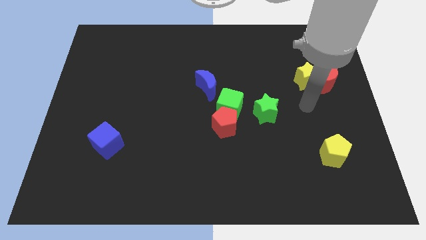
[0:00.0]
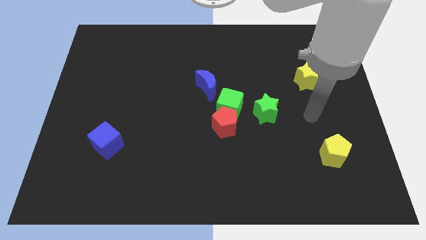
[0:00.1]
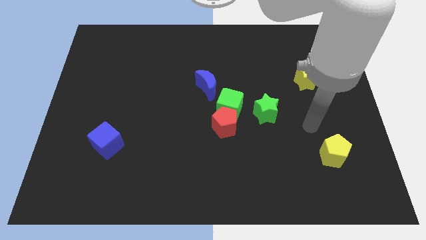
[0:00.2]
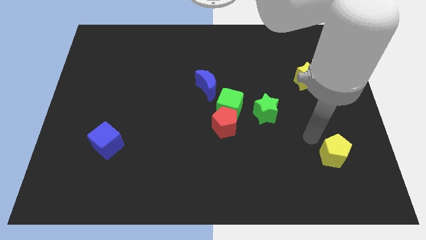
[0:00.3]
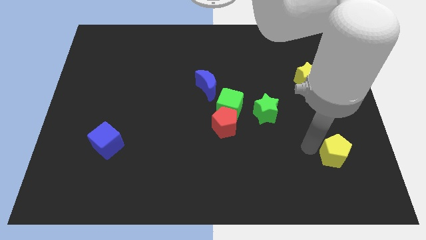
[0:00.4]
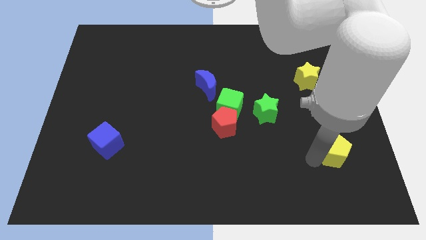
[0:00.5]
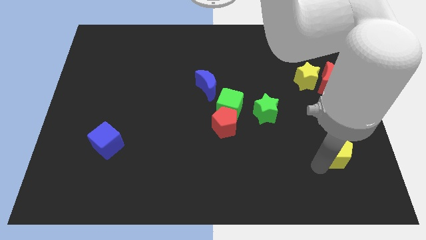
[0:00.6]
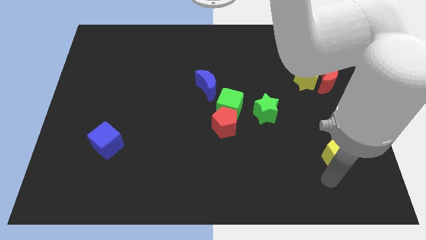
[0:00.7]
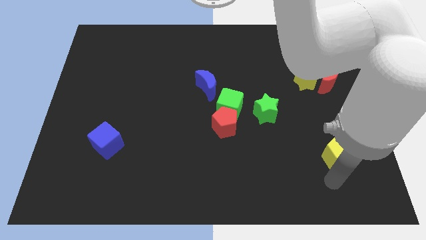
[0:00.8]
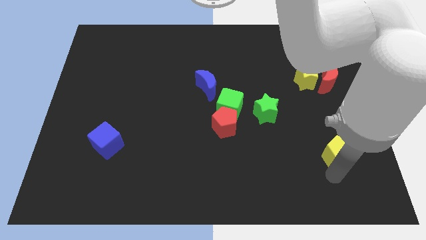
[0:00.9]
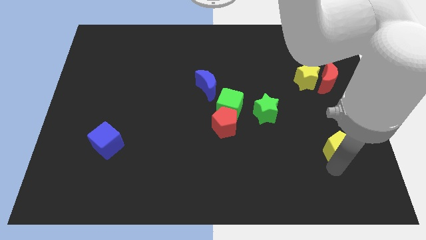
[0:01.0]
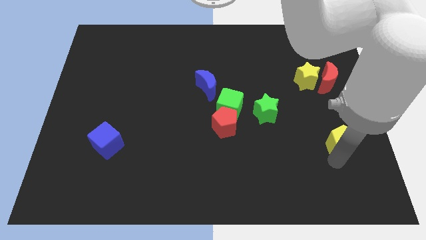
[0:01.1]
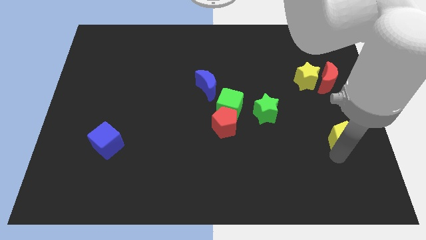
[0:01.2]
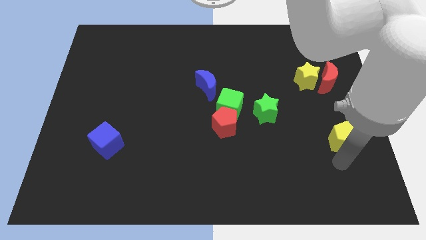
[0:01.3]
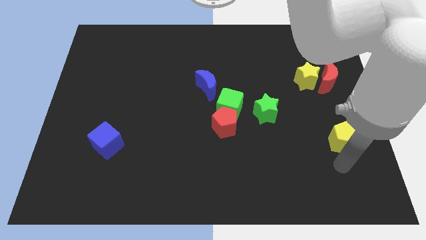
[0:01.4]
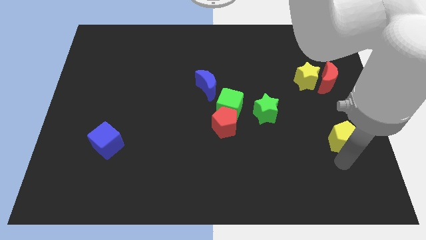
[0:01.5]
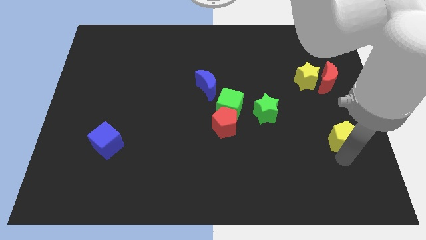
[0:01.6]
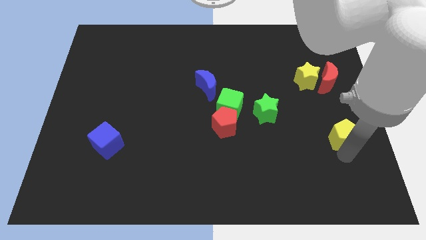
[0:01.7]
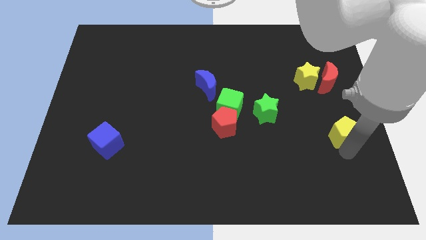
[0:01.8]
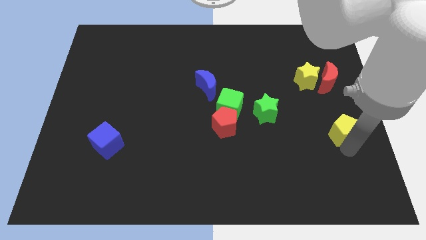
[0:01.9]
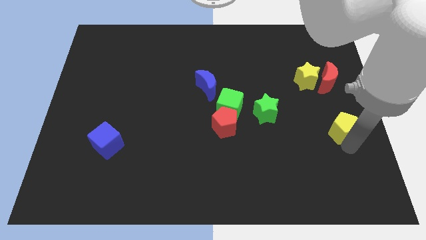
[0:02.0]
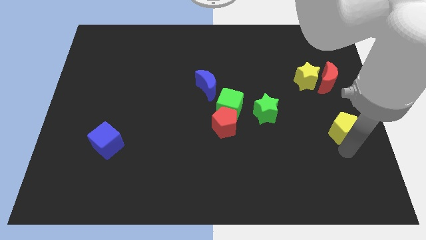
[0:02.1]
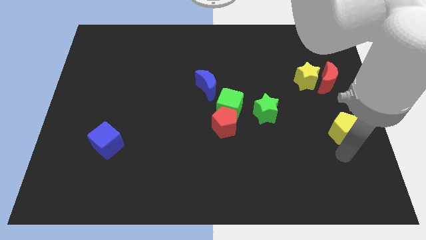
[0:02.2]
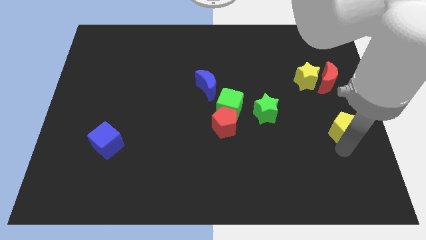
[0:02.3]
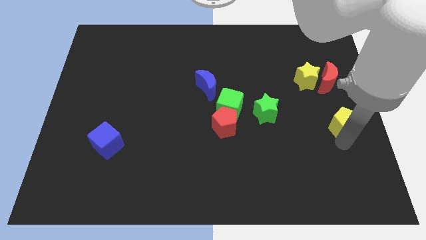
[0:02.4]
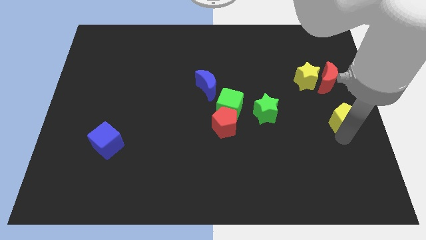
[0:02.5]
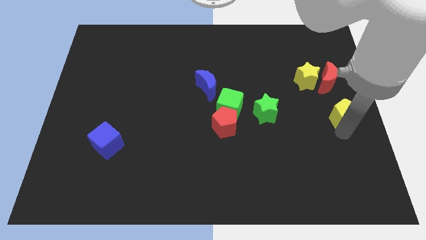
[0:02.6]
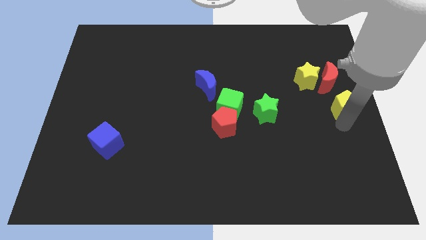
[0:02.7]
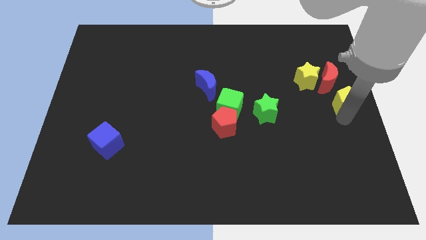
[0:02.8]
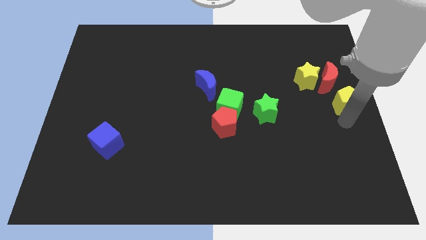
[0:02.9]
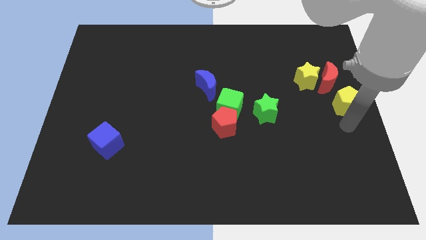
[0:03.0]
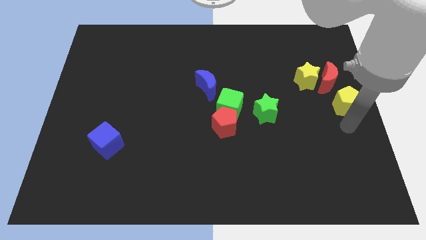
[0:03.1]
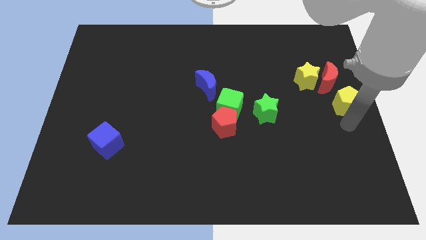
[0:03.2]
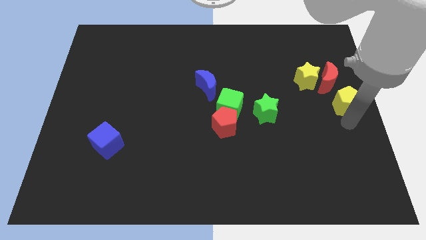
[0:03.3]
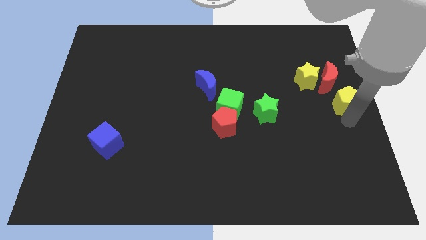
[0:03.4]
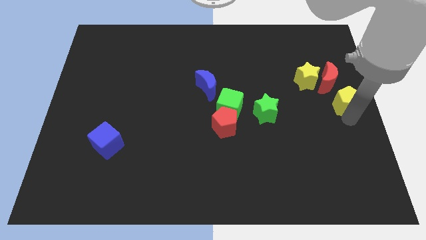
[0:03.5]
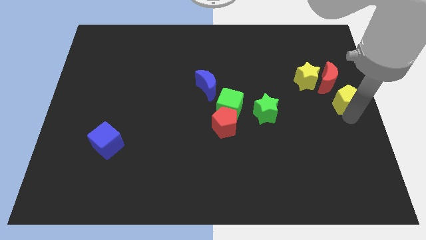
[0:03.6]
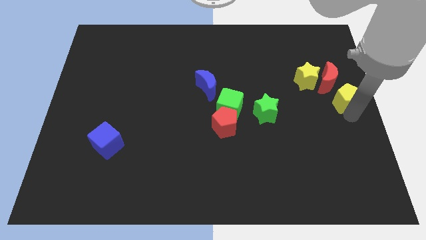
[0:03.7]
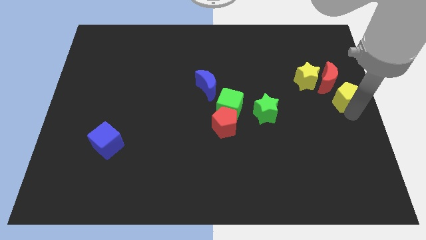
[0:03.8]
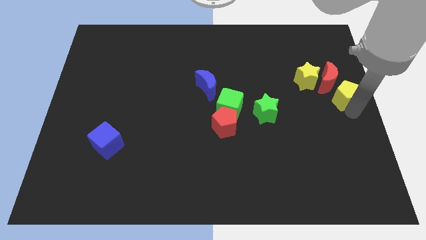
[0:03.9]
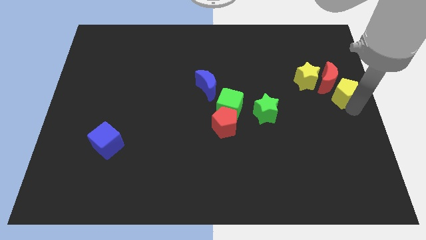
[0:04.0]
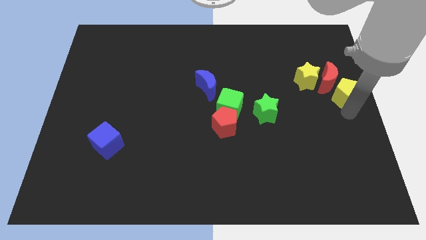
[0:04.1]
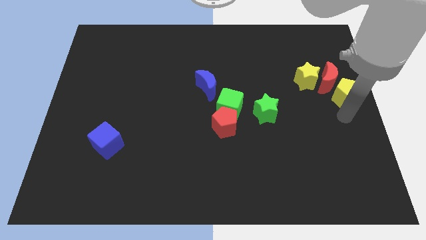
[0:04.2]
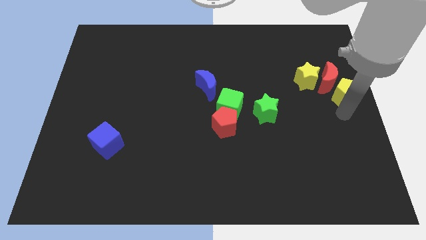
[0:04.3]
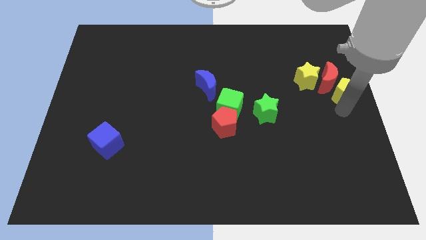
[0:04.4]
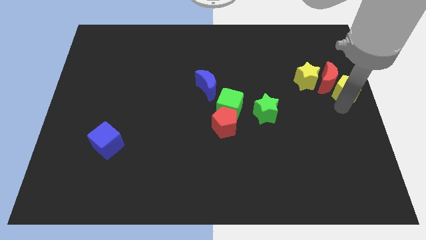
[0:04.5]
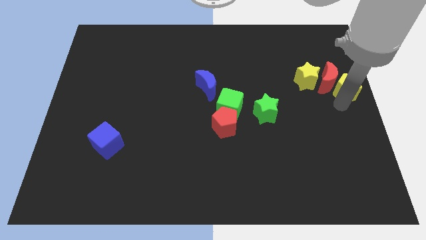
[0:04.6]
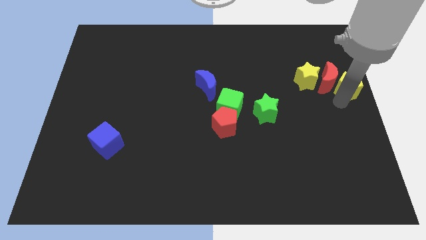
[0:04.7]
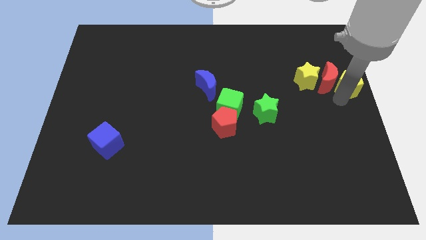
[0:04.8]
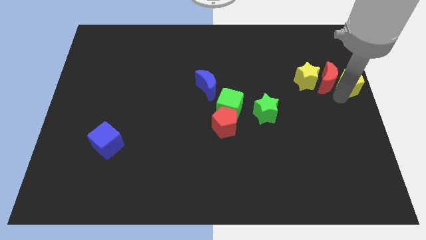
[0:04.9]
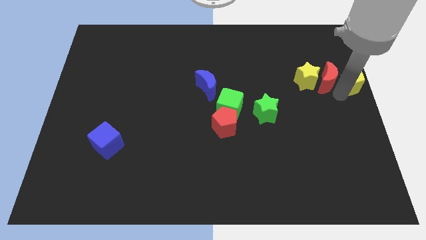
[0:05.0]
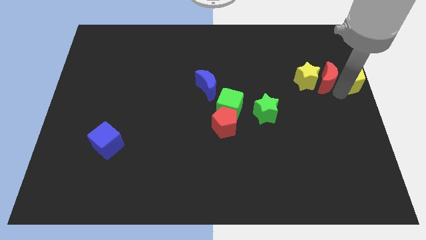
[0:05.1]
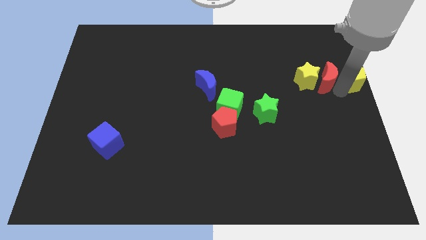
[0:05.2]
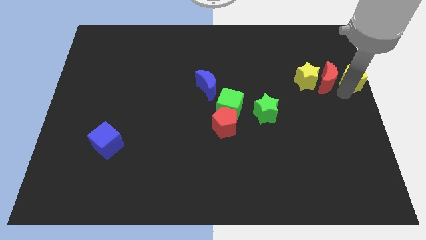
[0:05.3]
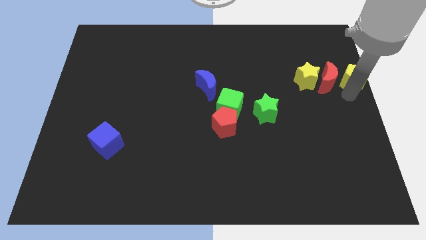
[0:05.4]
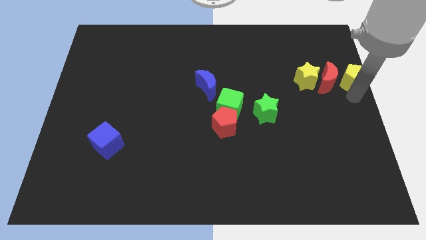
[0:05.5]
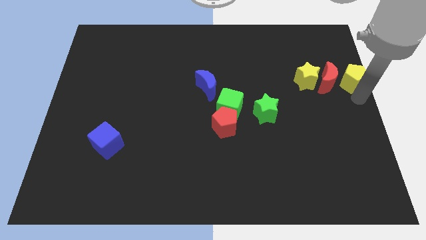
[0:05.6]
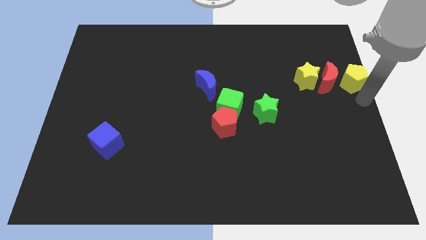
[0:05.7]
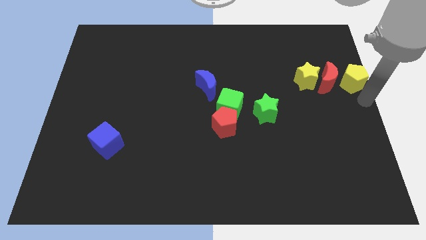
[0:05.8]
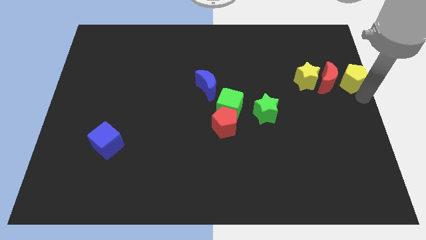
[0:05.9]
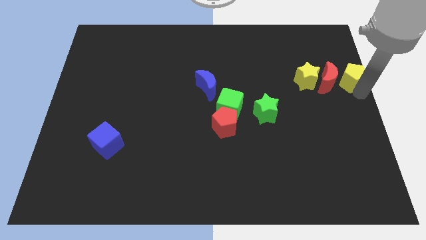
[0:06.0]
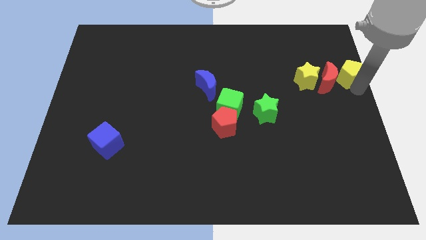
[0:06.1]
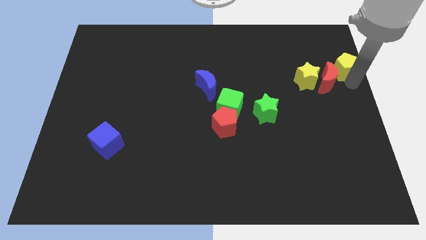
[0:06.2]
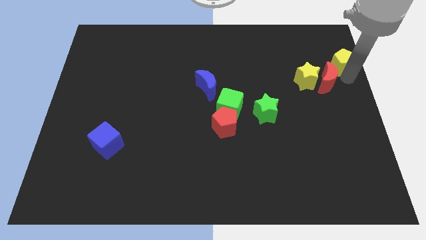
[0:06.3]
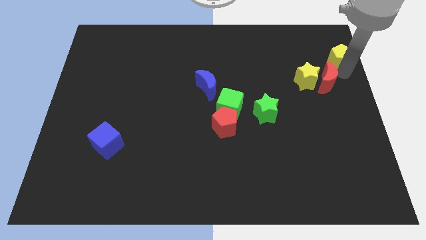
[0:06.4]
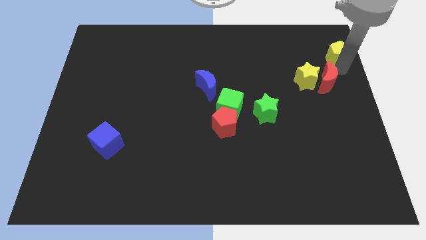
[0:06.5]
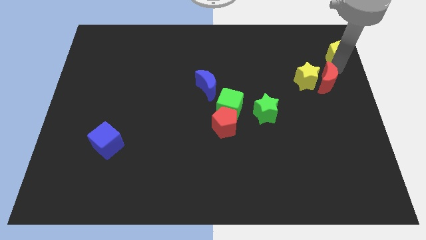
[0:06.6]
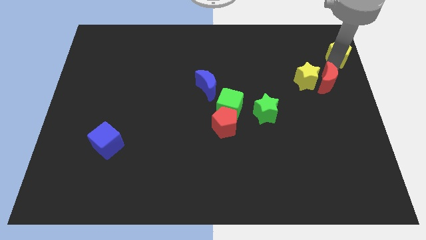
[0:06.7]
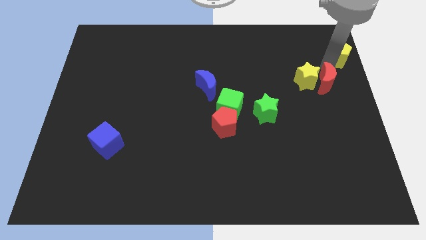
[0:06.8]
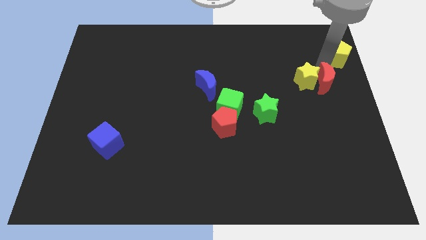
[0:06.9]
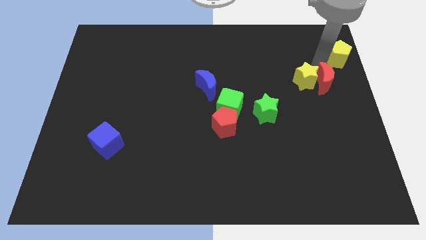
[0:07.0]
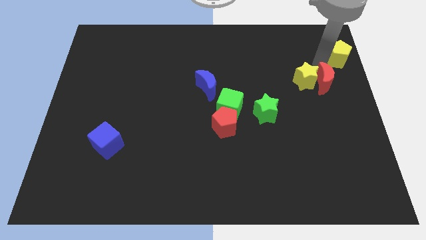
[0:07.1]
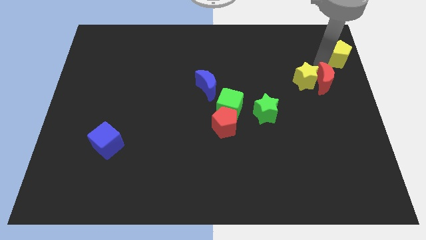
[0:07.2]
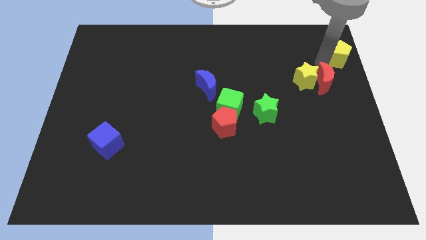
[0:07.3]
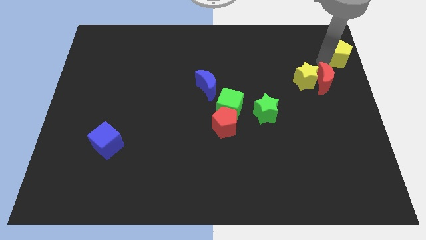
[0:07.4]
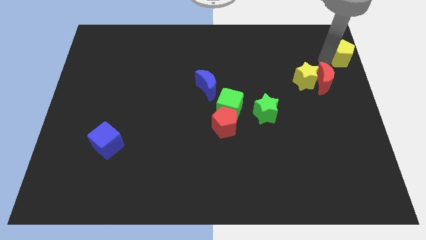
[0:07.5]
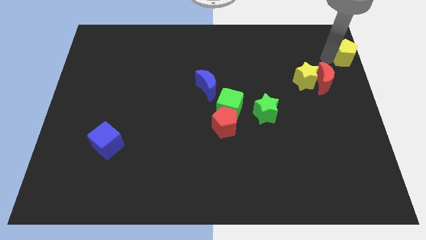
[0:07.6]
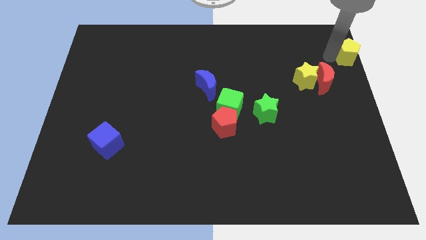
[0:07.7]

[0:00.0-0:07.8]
put the yellow pentagon to the top right of the board
